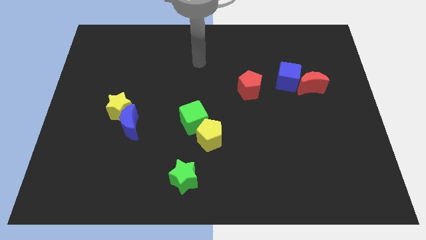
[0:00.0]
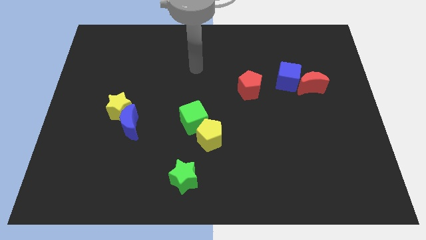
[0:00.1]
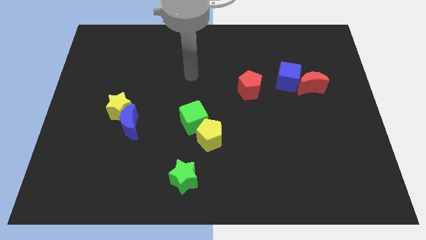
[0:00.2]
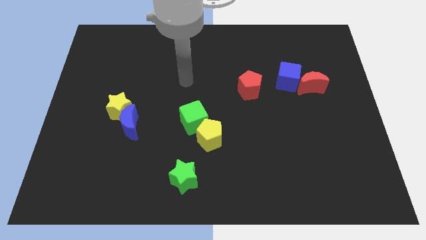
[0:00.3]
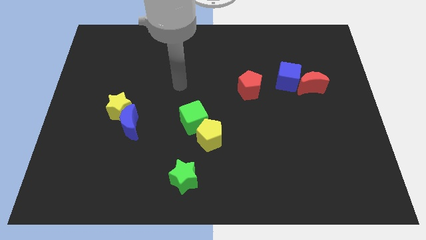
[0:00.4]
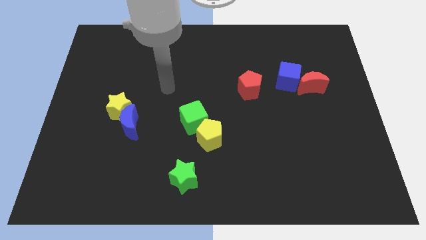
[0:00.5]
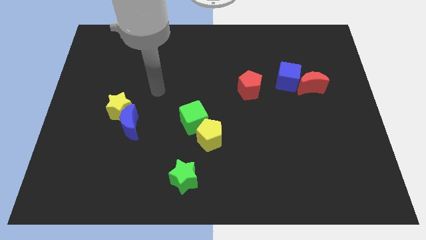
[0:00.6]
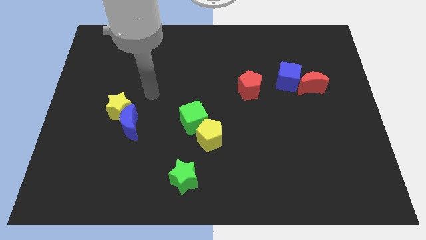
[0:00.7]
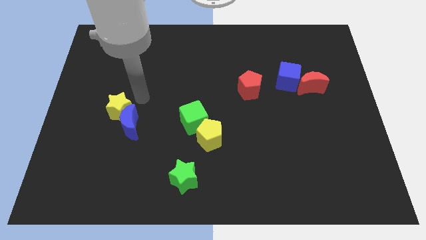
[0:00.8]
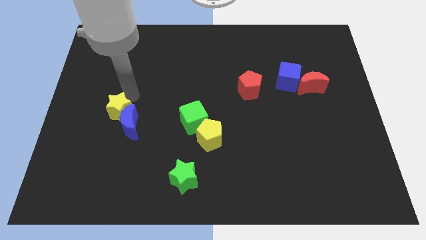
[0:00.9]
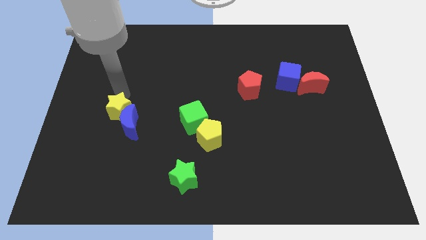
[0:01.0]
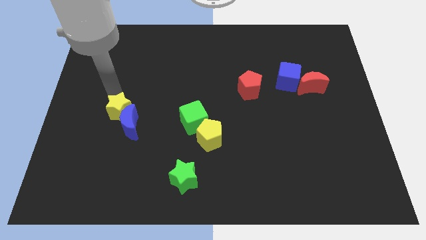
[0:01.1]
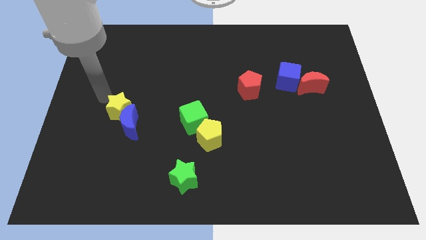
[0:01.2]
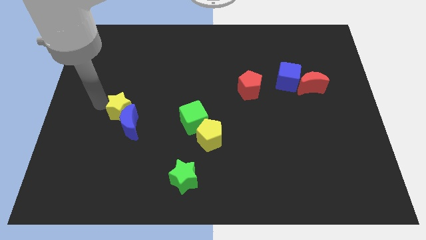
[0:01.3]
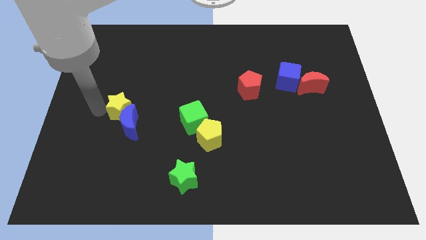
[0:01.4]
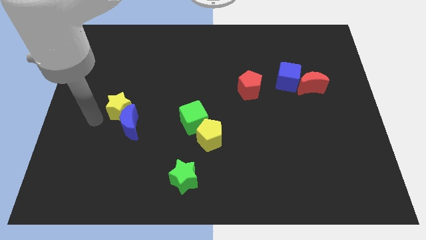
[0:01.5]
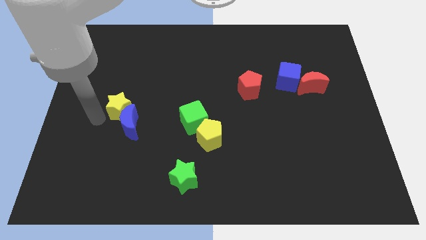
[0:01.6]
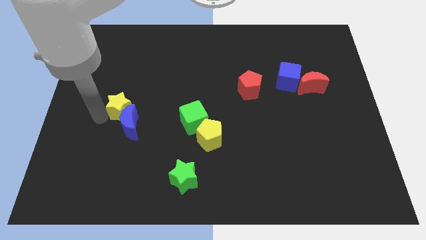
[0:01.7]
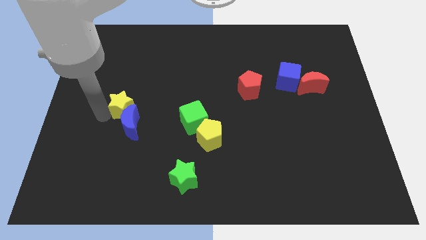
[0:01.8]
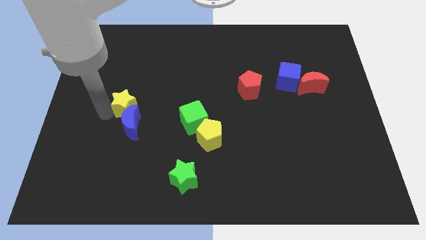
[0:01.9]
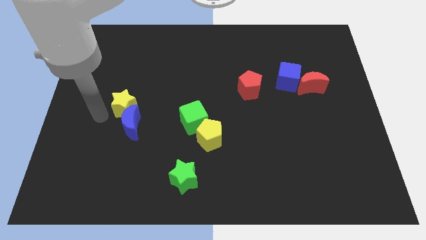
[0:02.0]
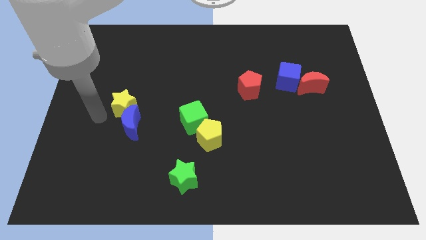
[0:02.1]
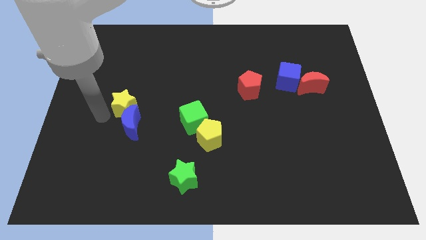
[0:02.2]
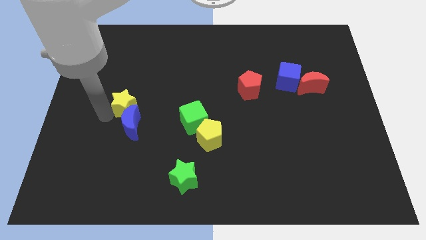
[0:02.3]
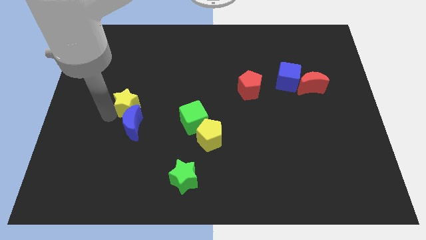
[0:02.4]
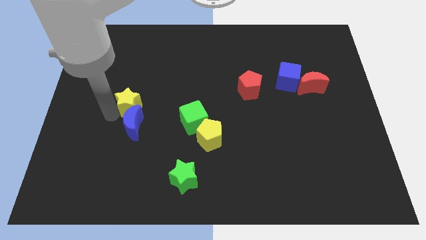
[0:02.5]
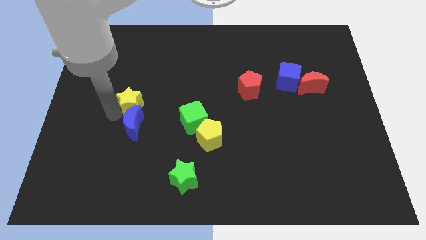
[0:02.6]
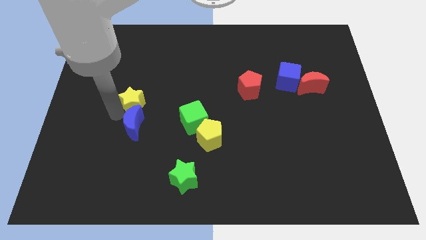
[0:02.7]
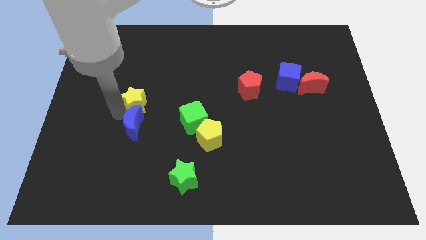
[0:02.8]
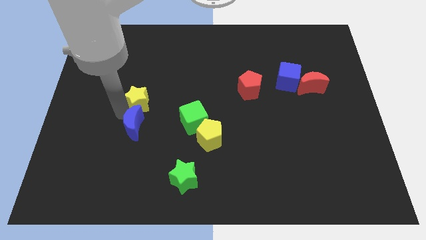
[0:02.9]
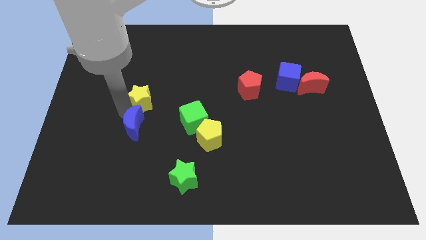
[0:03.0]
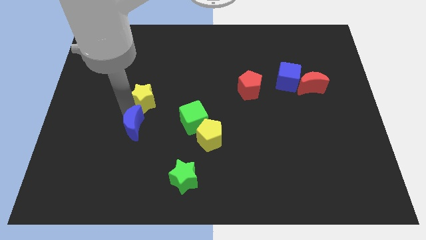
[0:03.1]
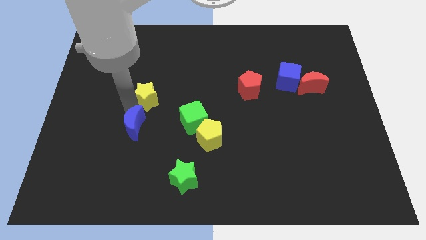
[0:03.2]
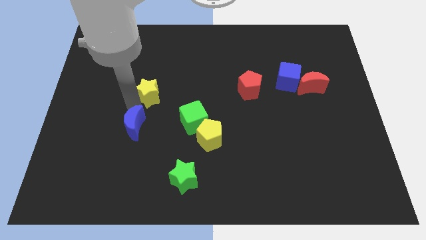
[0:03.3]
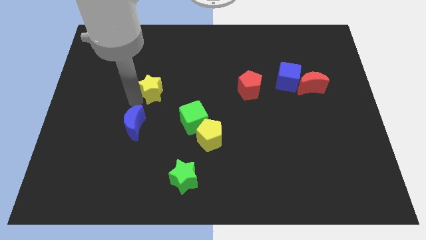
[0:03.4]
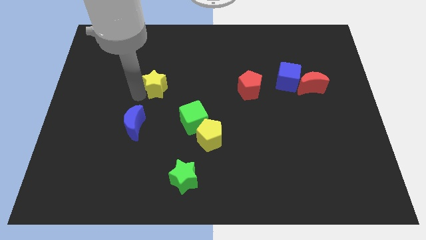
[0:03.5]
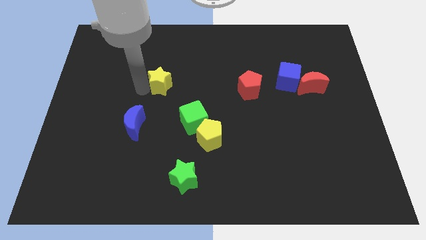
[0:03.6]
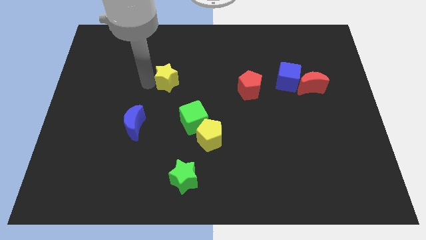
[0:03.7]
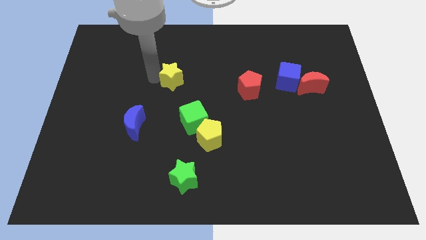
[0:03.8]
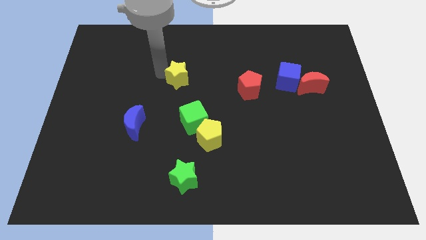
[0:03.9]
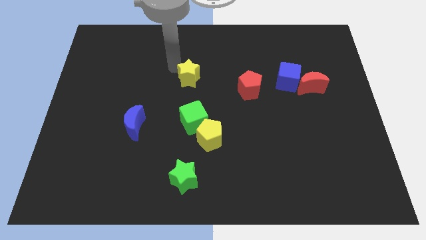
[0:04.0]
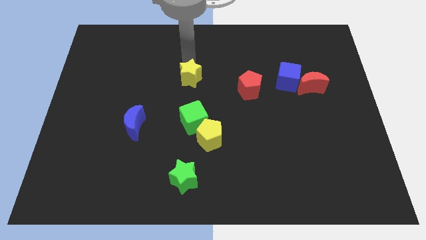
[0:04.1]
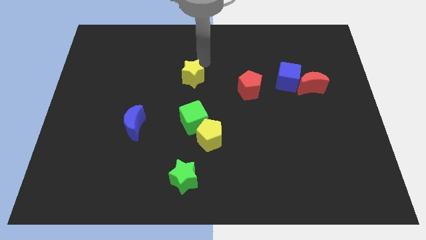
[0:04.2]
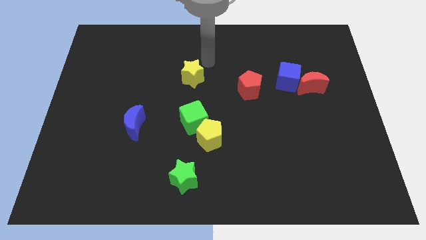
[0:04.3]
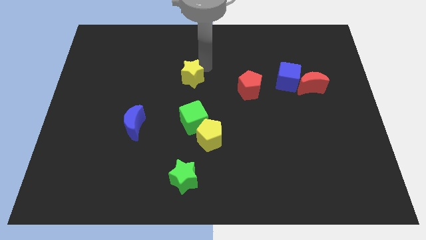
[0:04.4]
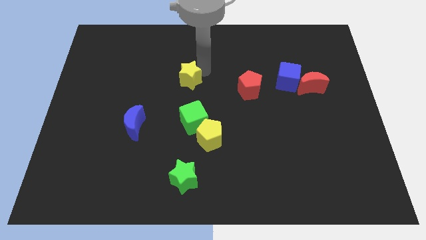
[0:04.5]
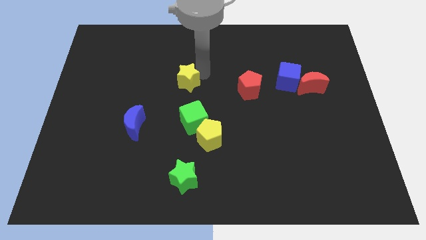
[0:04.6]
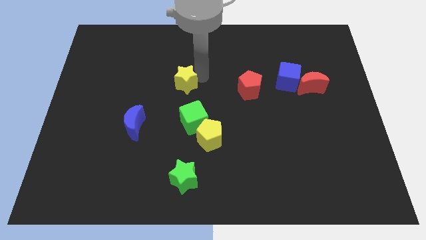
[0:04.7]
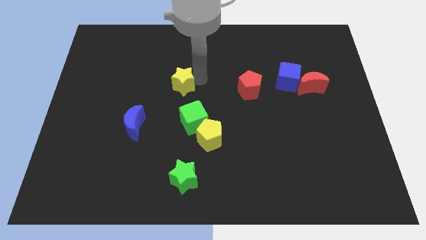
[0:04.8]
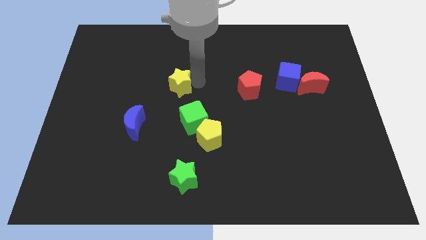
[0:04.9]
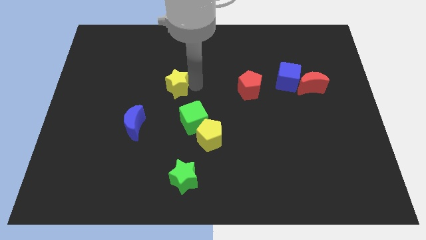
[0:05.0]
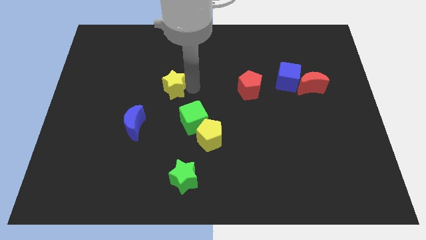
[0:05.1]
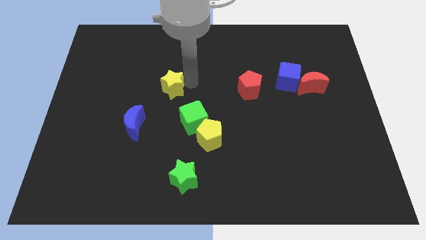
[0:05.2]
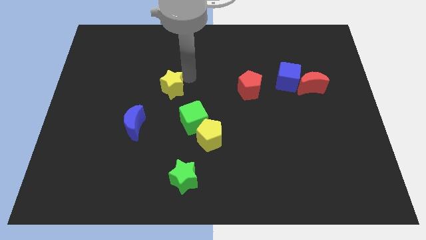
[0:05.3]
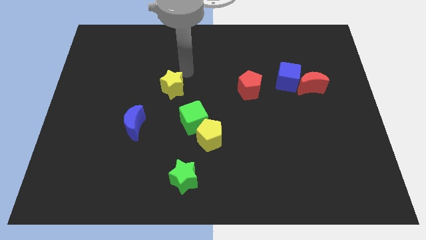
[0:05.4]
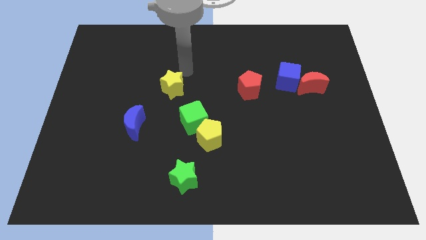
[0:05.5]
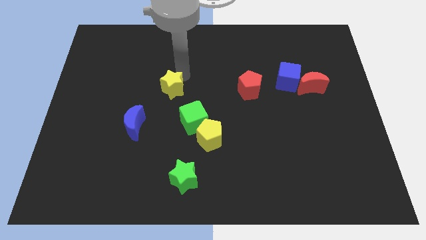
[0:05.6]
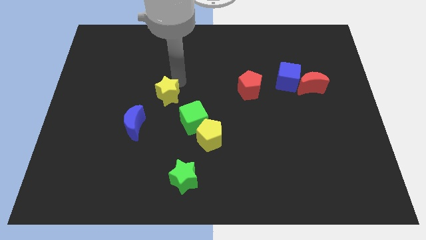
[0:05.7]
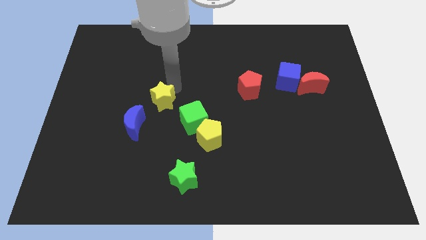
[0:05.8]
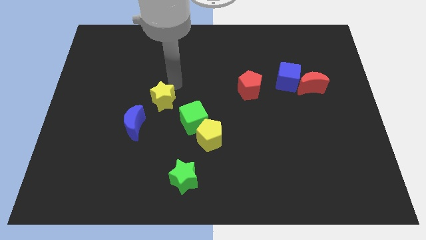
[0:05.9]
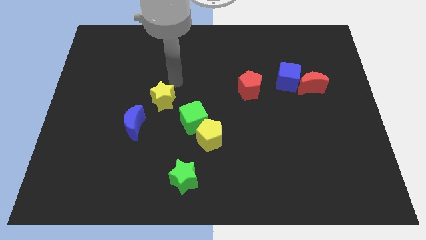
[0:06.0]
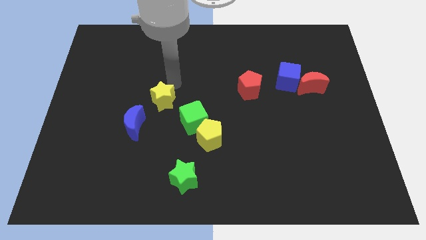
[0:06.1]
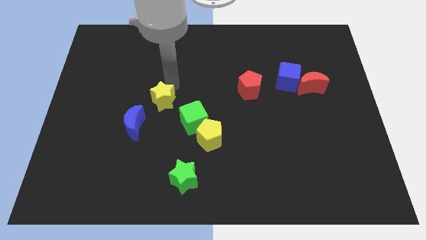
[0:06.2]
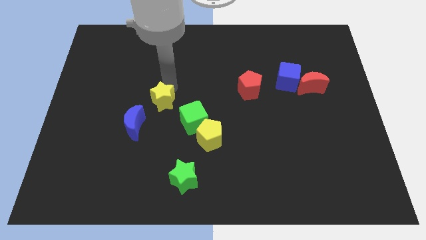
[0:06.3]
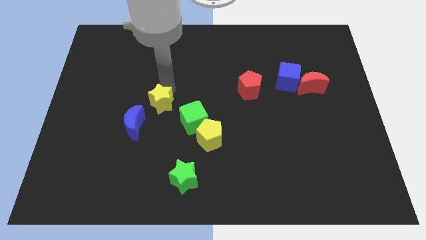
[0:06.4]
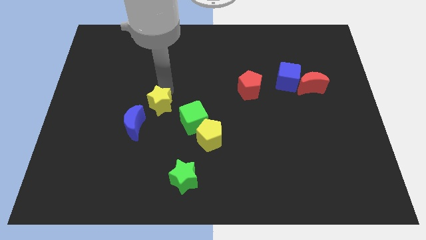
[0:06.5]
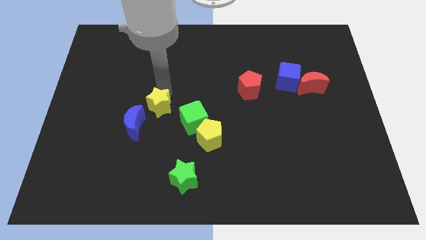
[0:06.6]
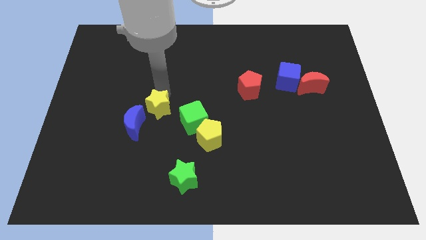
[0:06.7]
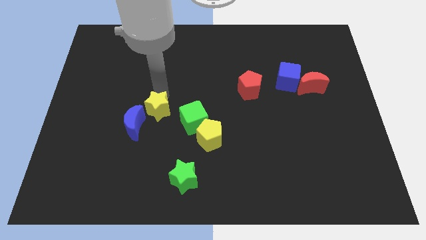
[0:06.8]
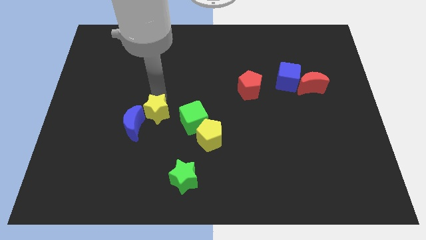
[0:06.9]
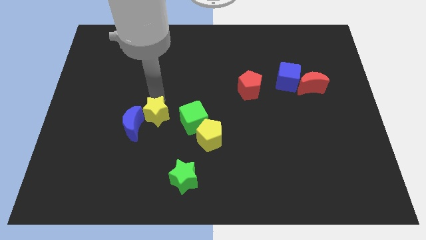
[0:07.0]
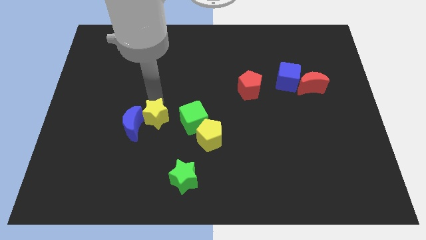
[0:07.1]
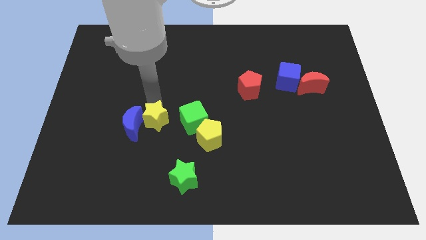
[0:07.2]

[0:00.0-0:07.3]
slide the yellow star just left of the yellow pentagon

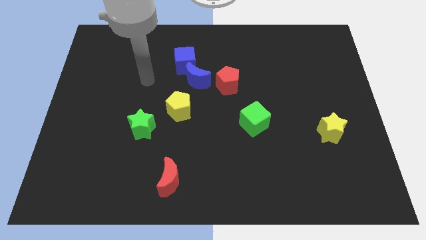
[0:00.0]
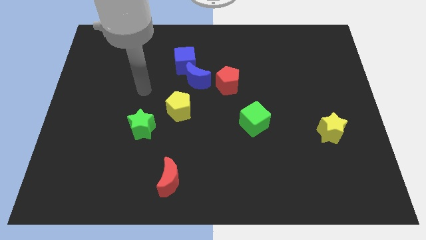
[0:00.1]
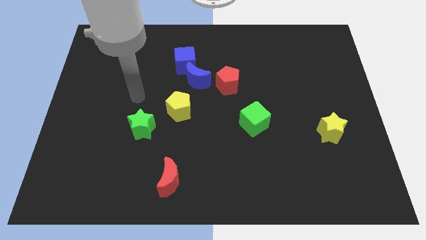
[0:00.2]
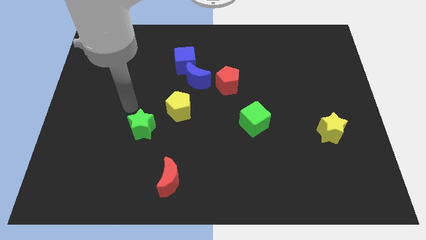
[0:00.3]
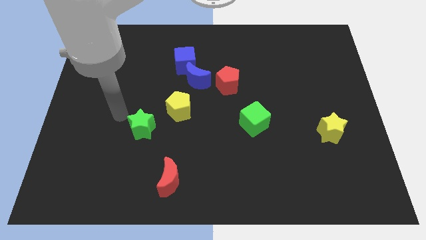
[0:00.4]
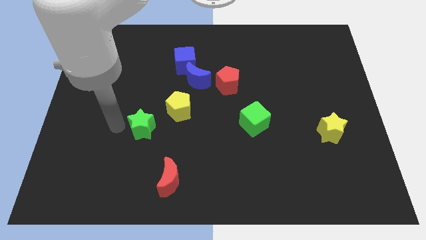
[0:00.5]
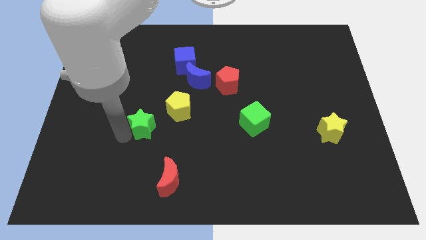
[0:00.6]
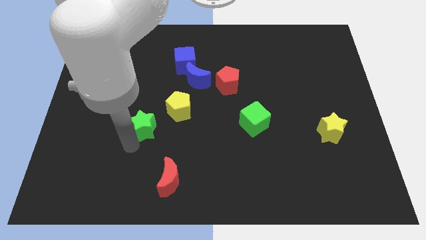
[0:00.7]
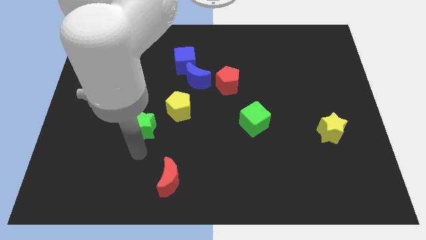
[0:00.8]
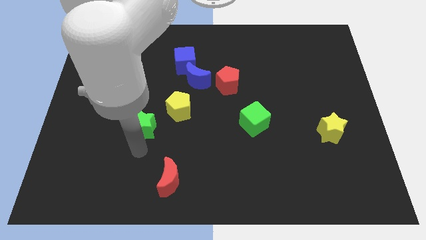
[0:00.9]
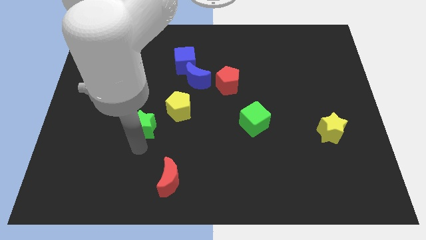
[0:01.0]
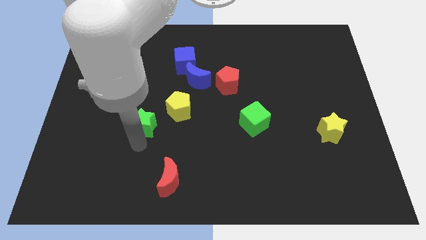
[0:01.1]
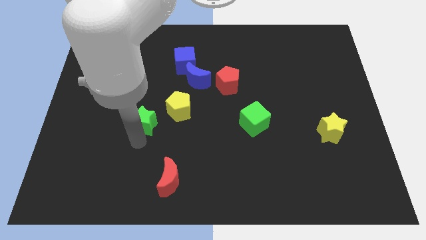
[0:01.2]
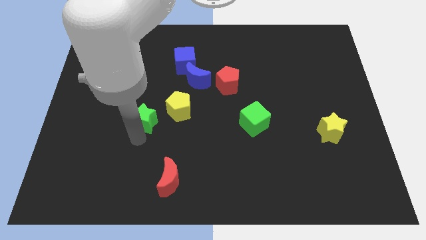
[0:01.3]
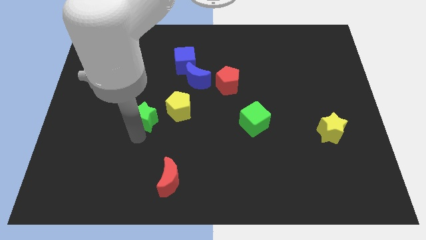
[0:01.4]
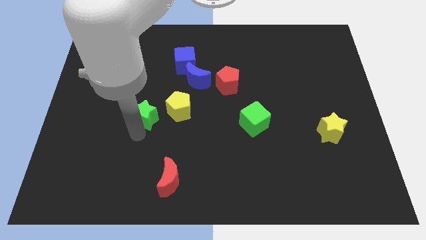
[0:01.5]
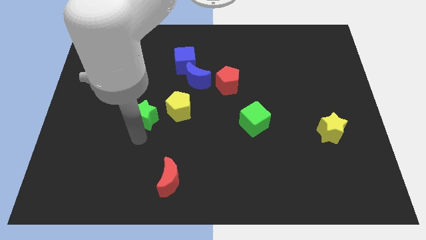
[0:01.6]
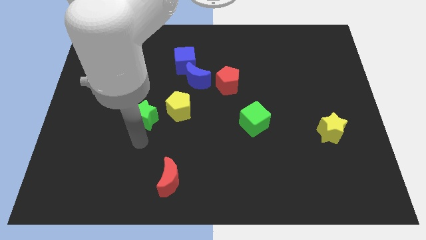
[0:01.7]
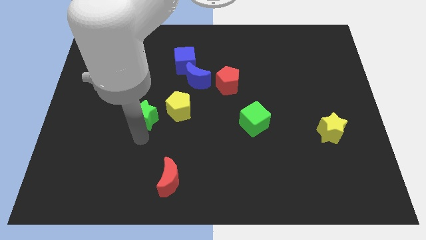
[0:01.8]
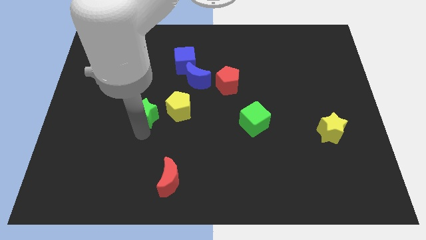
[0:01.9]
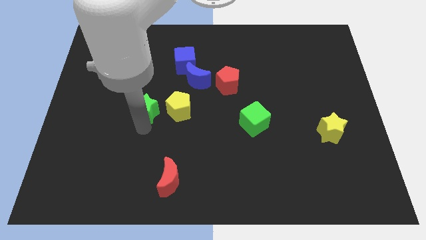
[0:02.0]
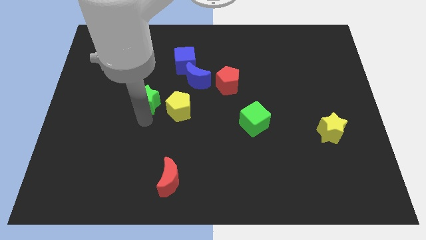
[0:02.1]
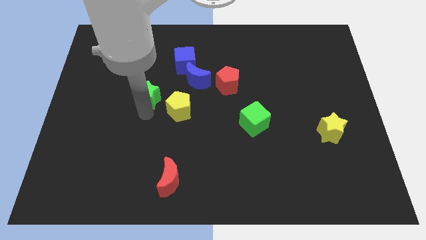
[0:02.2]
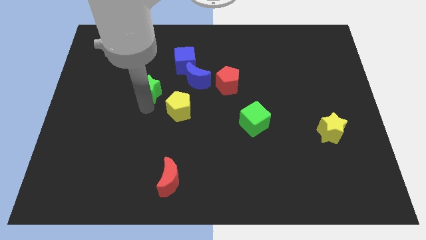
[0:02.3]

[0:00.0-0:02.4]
move the green star just left of the blue moon
